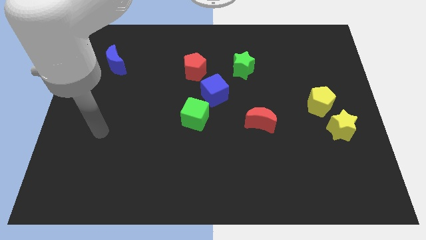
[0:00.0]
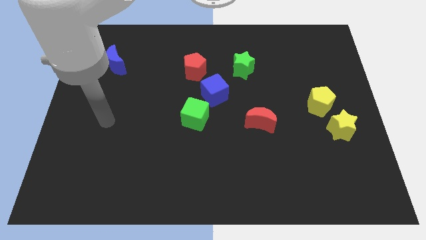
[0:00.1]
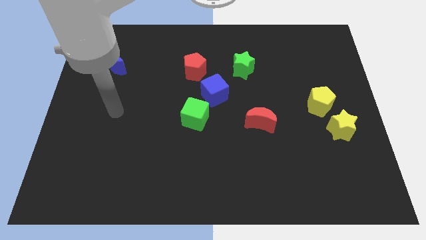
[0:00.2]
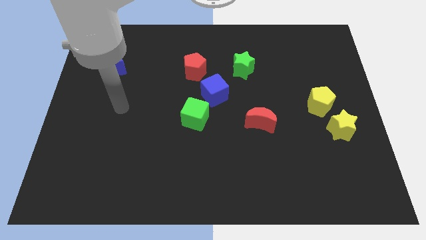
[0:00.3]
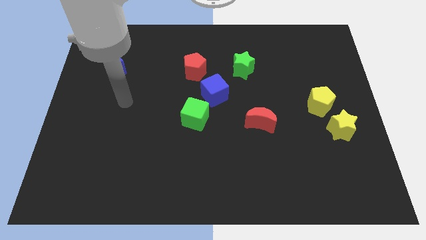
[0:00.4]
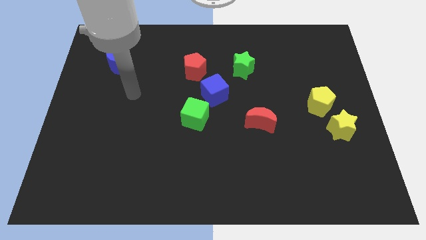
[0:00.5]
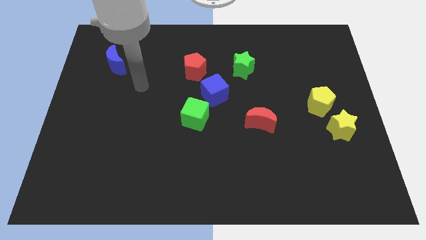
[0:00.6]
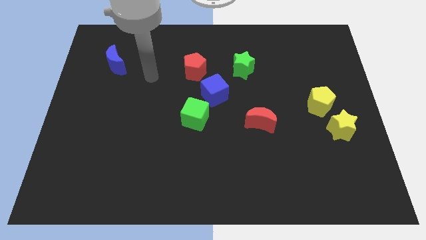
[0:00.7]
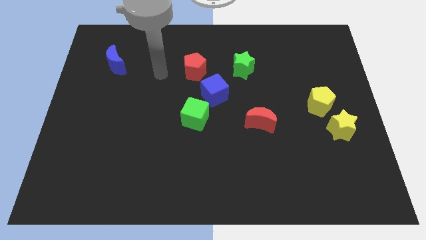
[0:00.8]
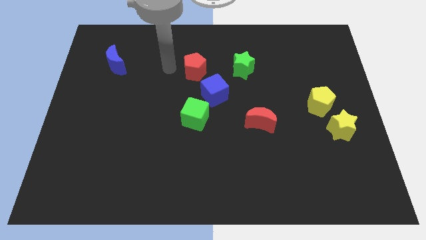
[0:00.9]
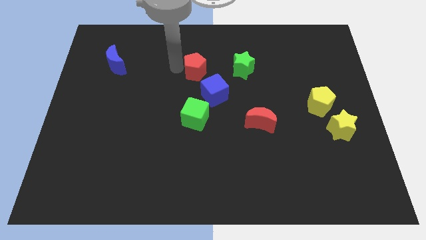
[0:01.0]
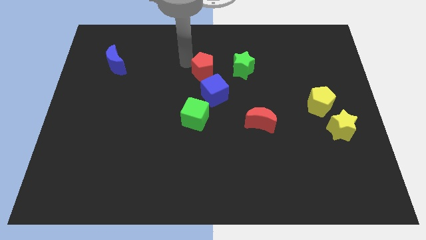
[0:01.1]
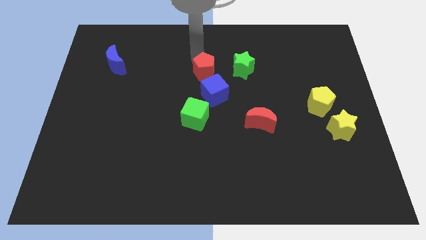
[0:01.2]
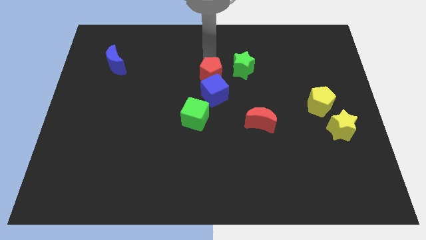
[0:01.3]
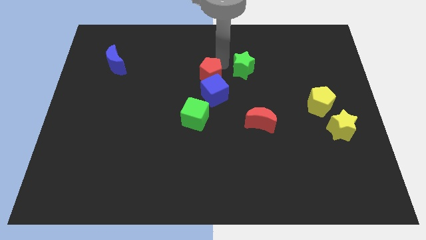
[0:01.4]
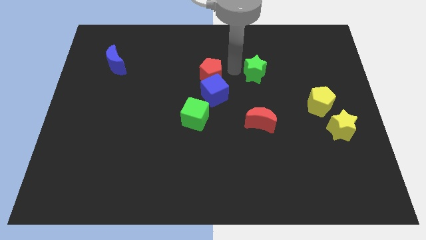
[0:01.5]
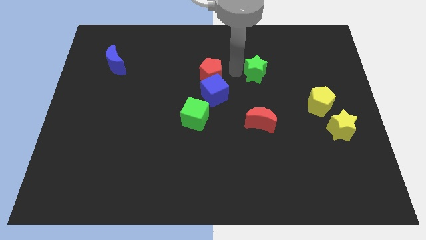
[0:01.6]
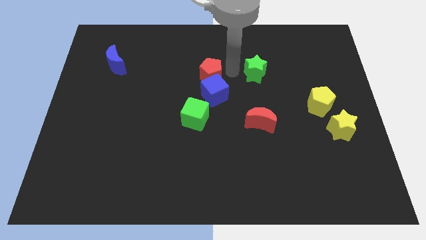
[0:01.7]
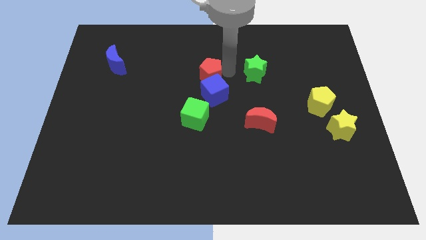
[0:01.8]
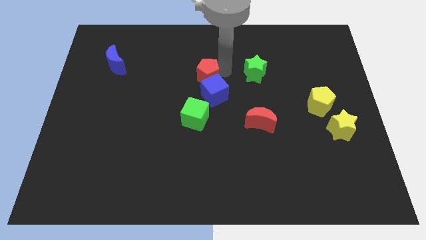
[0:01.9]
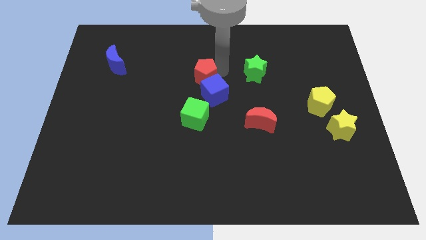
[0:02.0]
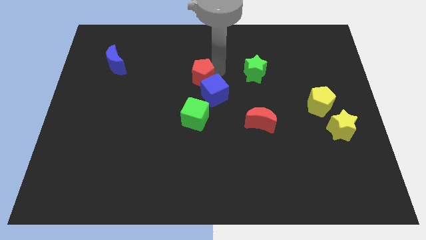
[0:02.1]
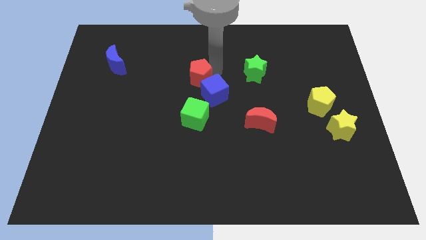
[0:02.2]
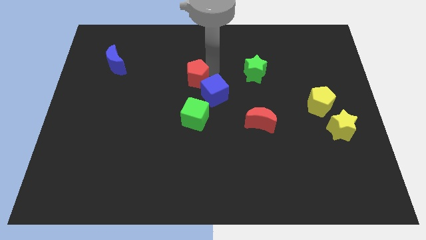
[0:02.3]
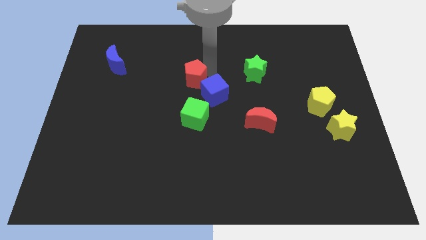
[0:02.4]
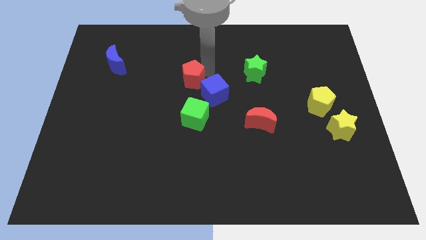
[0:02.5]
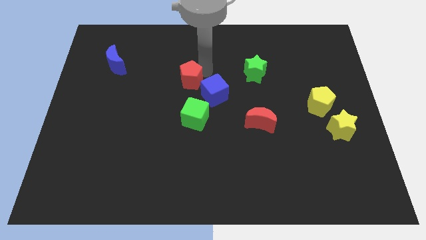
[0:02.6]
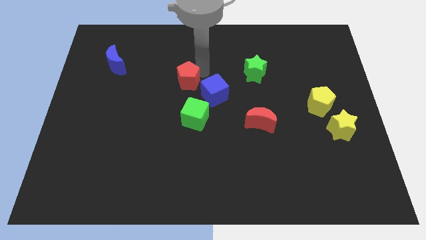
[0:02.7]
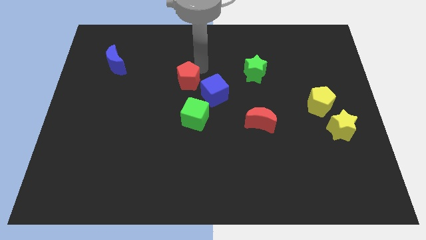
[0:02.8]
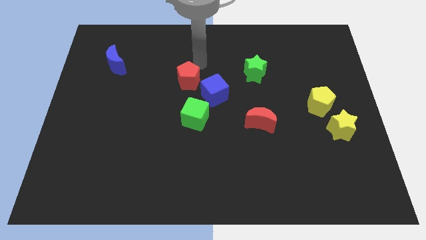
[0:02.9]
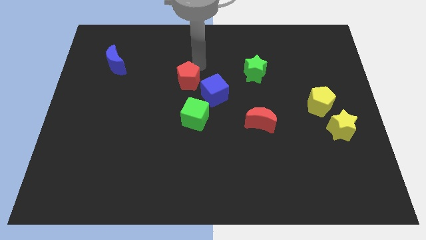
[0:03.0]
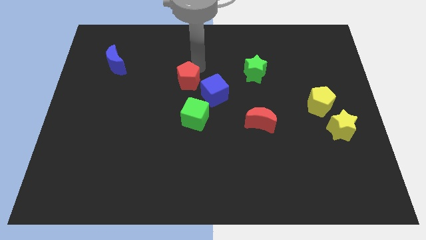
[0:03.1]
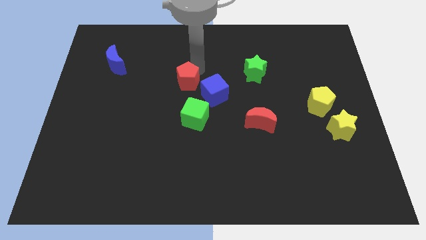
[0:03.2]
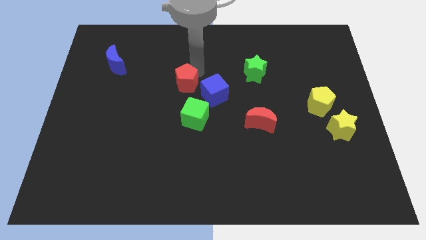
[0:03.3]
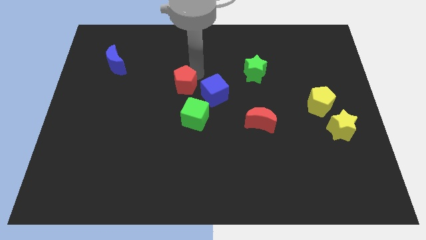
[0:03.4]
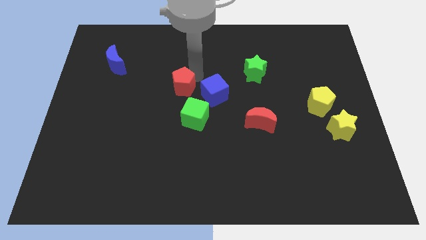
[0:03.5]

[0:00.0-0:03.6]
put the red pentagon to the top left side of the green cube

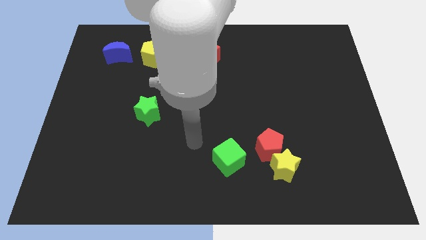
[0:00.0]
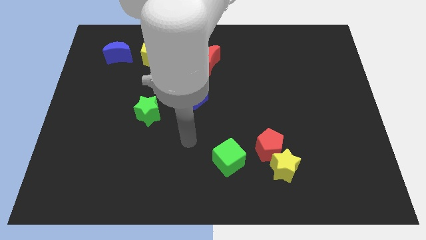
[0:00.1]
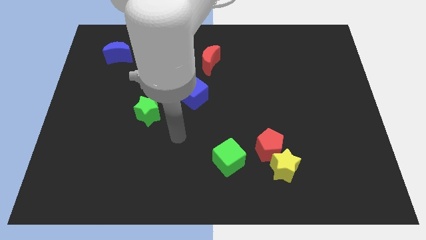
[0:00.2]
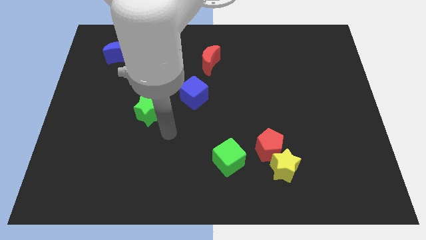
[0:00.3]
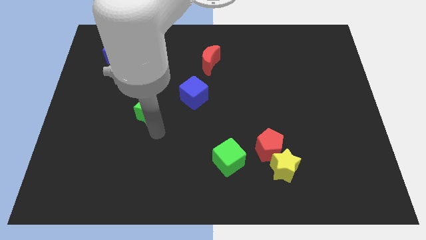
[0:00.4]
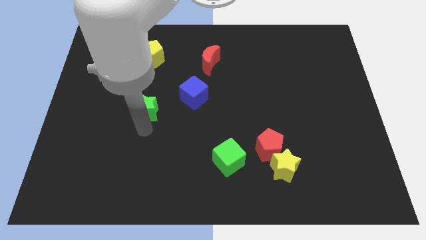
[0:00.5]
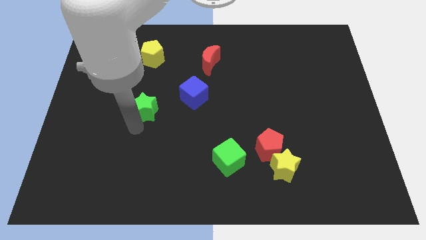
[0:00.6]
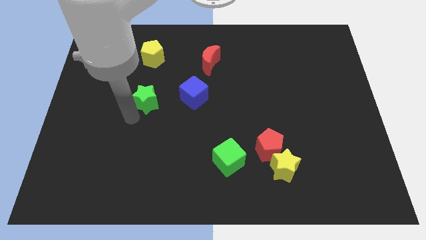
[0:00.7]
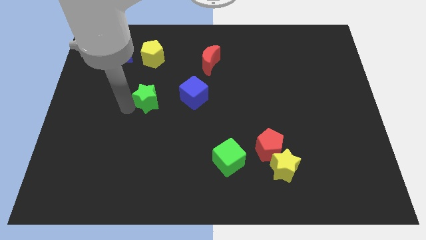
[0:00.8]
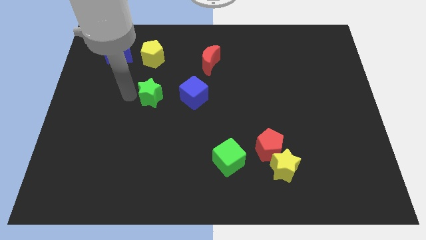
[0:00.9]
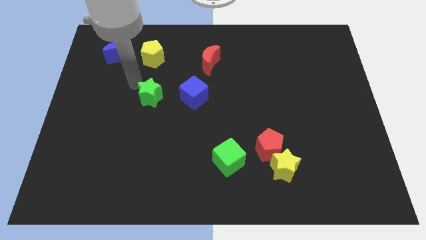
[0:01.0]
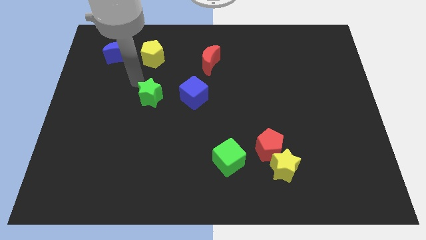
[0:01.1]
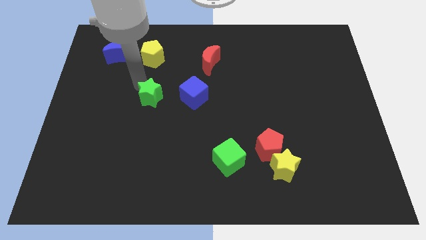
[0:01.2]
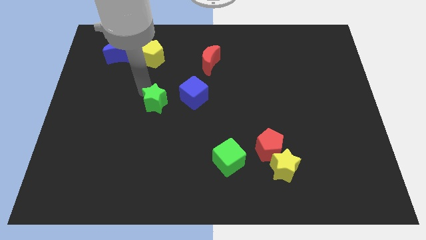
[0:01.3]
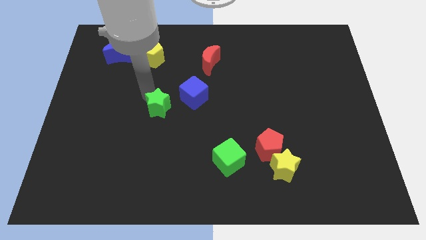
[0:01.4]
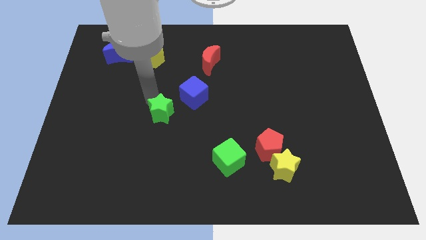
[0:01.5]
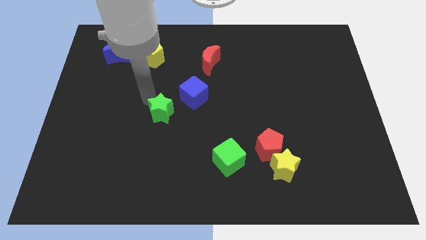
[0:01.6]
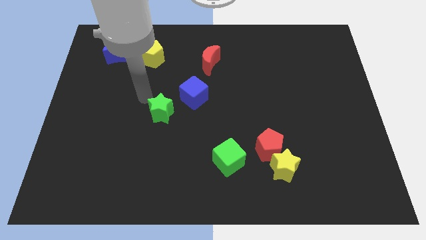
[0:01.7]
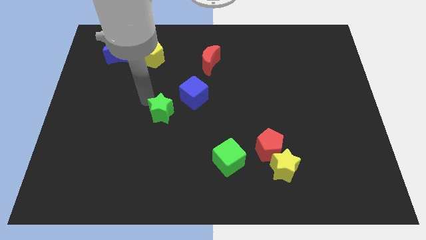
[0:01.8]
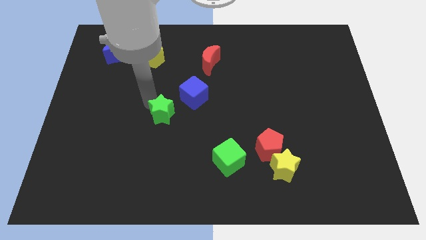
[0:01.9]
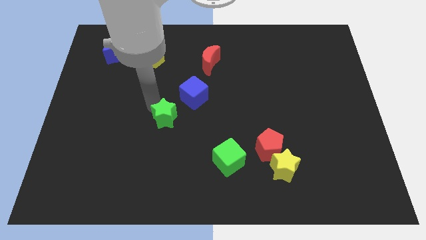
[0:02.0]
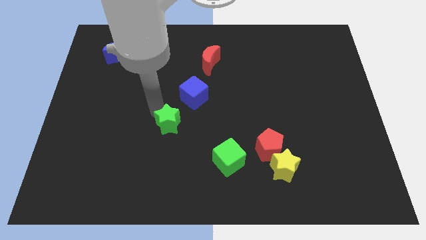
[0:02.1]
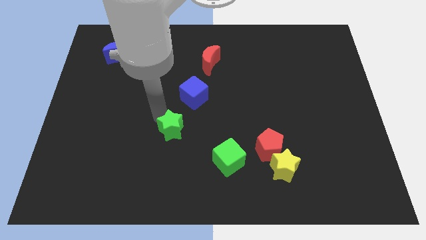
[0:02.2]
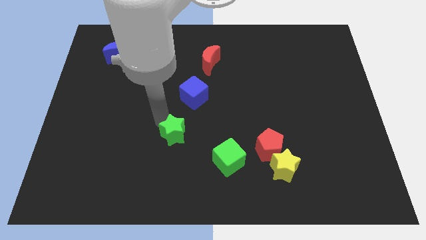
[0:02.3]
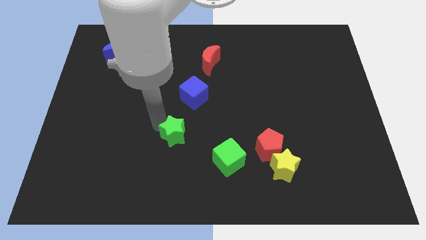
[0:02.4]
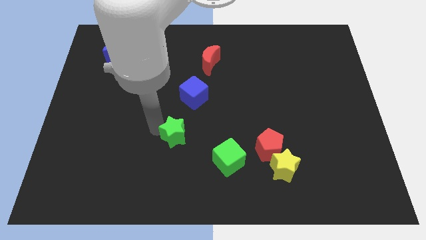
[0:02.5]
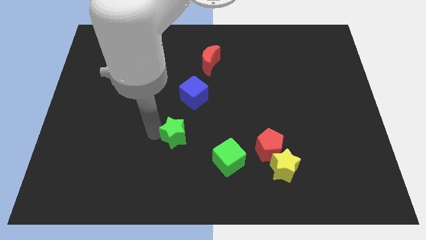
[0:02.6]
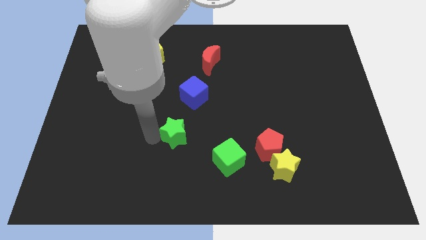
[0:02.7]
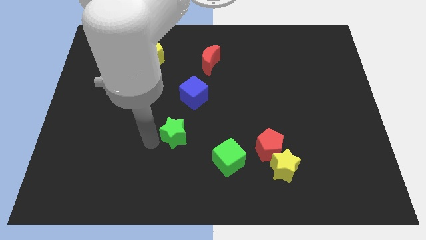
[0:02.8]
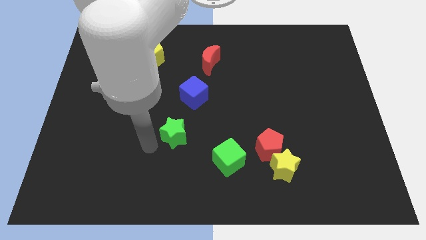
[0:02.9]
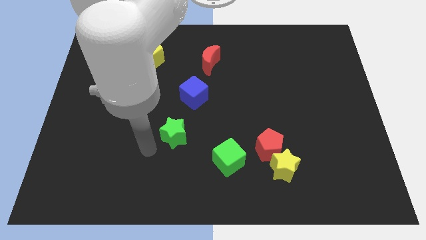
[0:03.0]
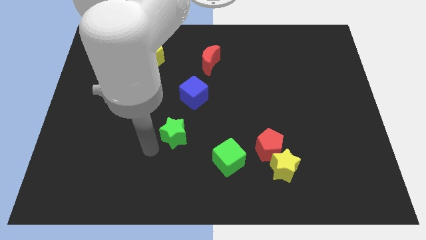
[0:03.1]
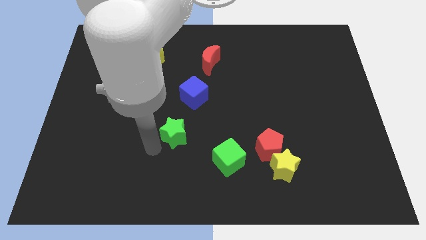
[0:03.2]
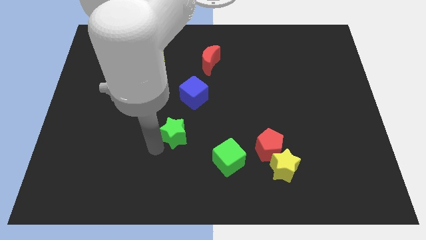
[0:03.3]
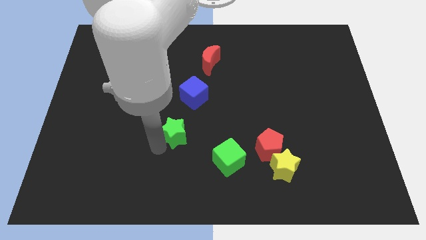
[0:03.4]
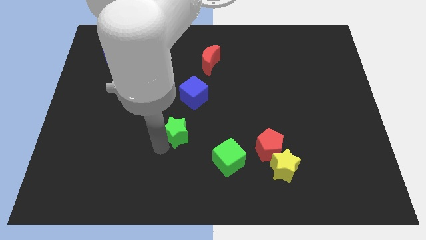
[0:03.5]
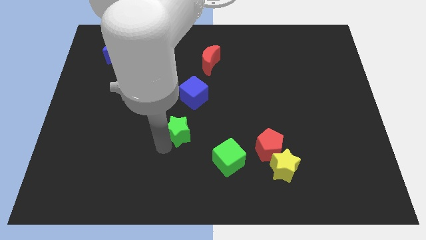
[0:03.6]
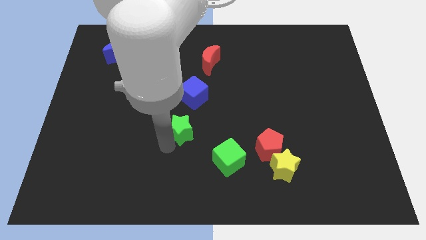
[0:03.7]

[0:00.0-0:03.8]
push the green star to the top left of the green cube
